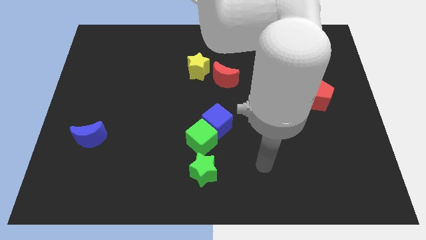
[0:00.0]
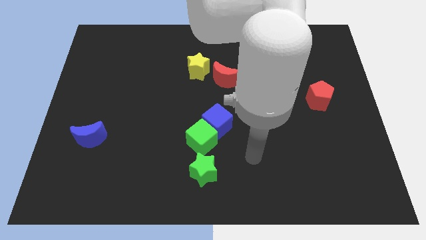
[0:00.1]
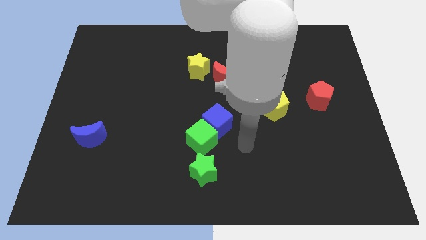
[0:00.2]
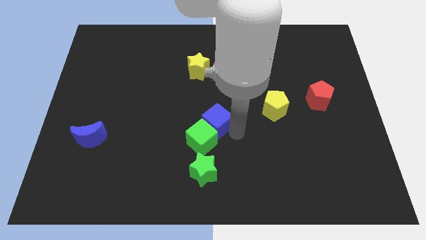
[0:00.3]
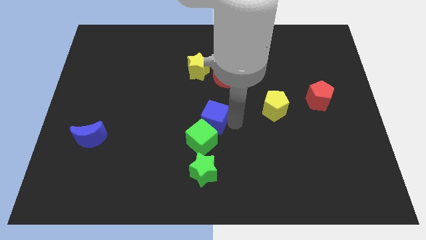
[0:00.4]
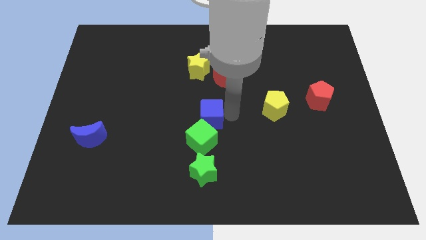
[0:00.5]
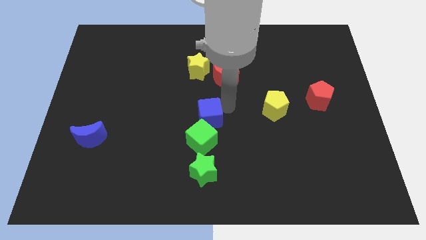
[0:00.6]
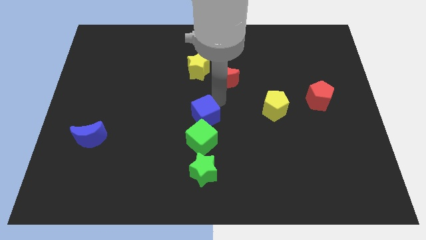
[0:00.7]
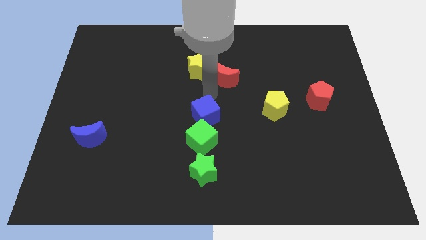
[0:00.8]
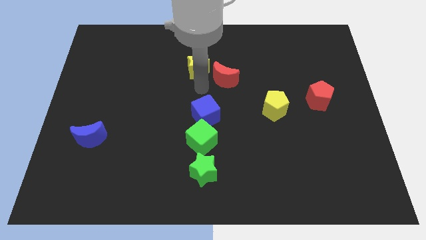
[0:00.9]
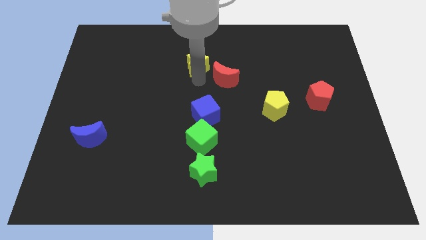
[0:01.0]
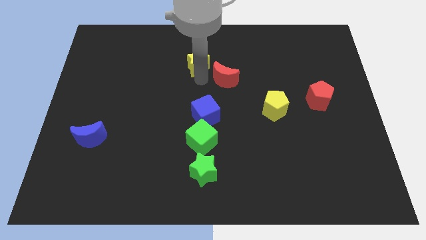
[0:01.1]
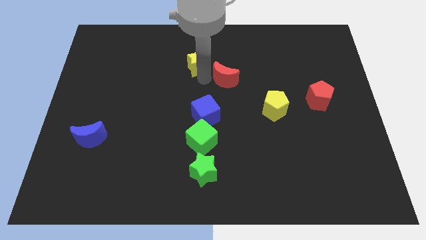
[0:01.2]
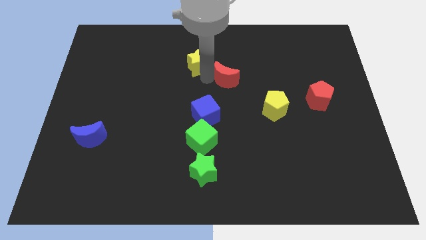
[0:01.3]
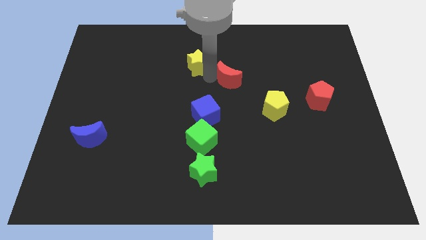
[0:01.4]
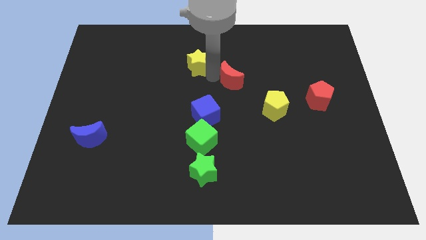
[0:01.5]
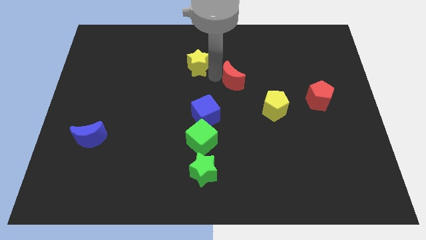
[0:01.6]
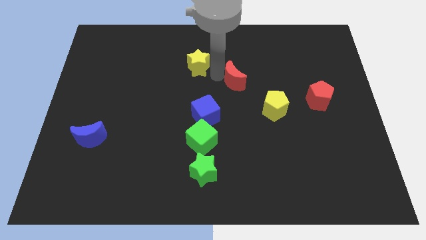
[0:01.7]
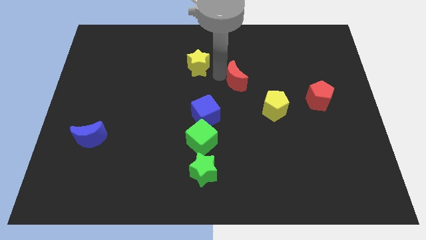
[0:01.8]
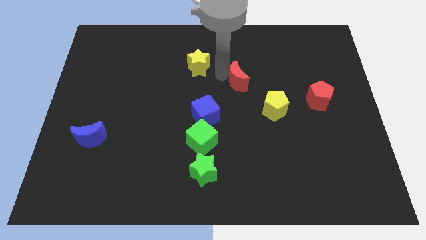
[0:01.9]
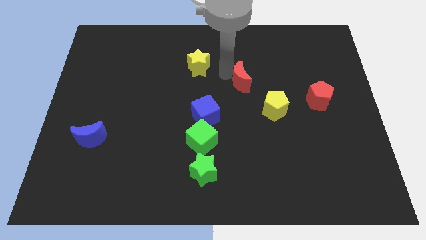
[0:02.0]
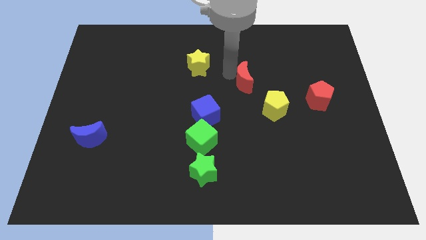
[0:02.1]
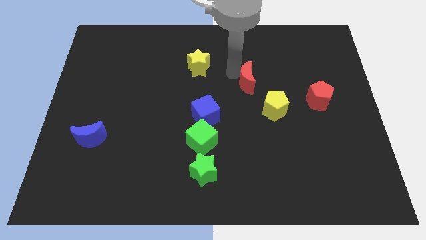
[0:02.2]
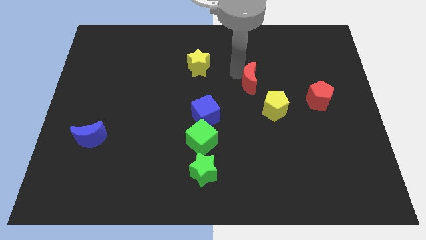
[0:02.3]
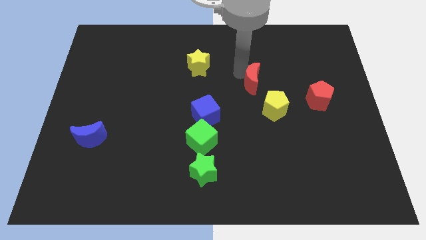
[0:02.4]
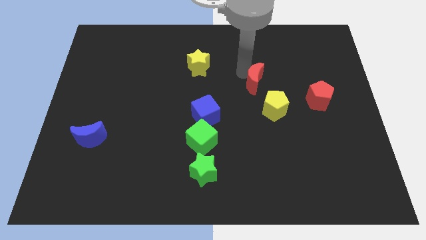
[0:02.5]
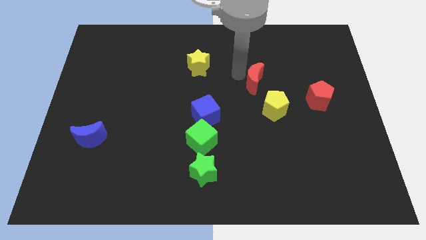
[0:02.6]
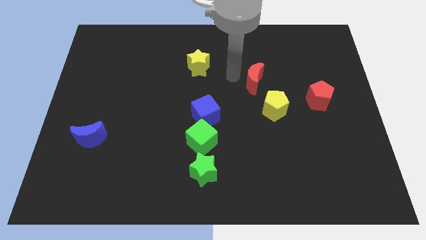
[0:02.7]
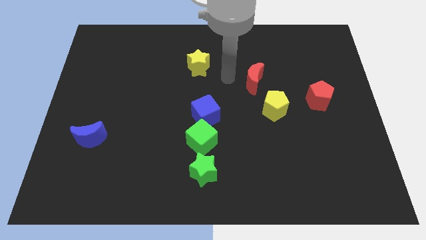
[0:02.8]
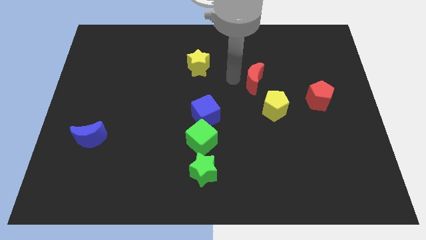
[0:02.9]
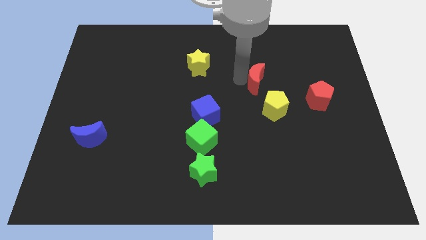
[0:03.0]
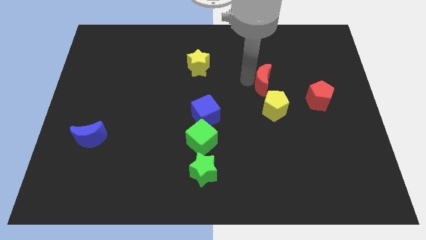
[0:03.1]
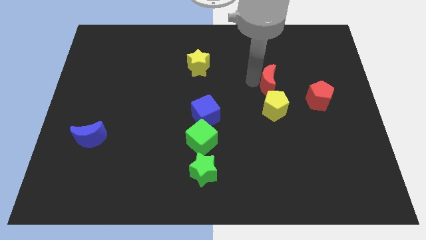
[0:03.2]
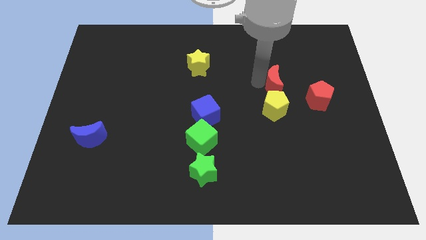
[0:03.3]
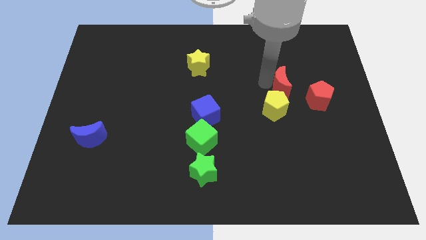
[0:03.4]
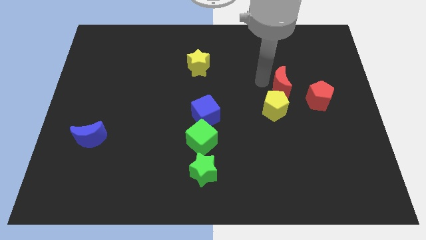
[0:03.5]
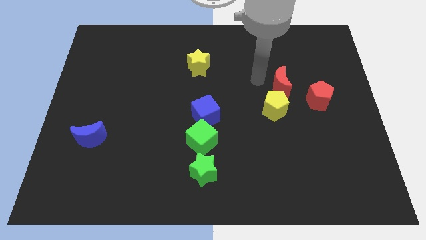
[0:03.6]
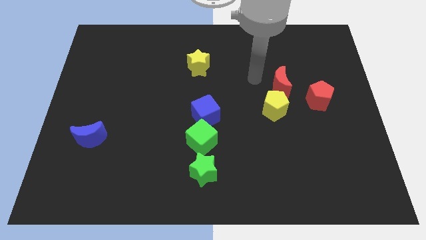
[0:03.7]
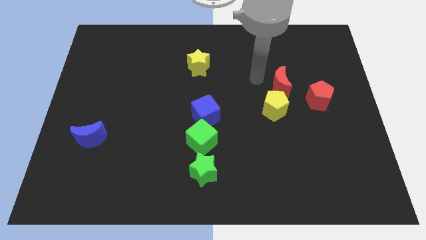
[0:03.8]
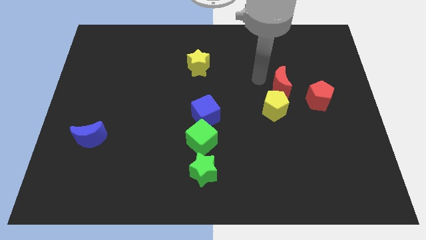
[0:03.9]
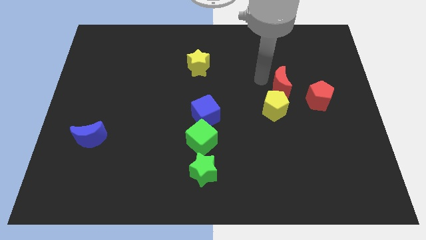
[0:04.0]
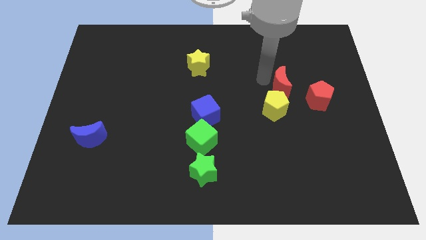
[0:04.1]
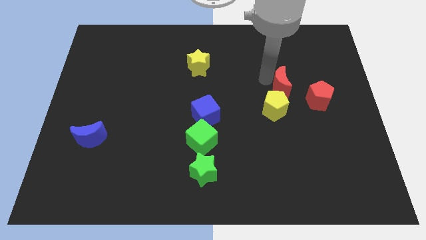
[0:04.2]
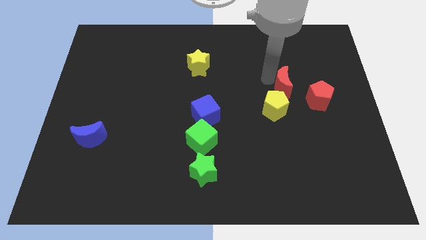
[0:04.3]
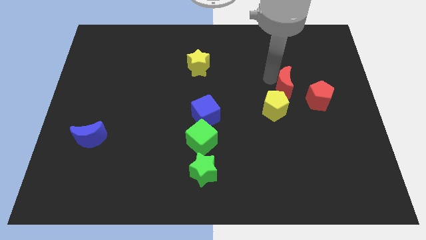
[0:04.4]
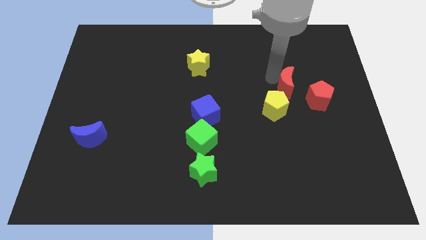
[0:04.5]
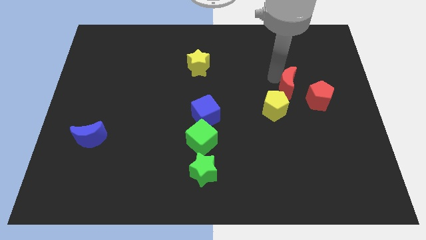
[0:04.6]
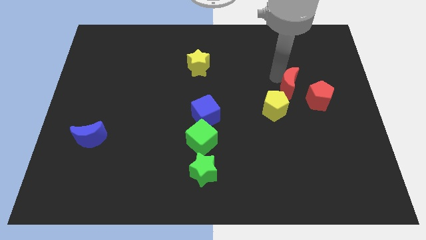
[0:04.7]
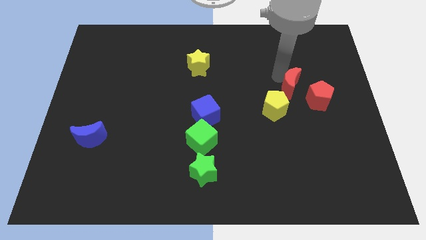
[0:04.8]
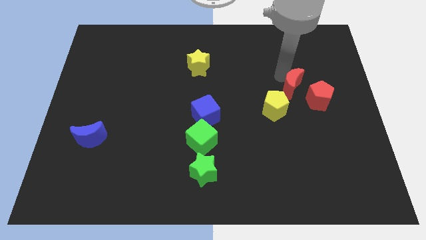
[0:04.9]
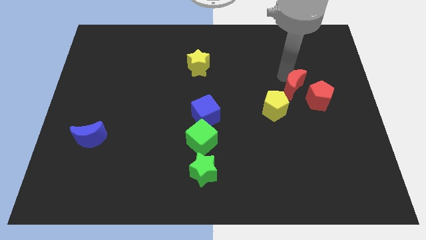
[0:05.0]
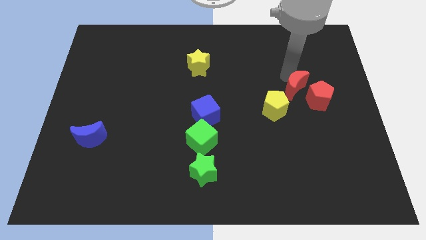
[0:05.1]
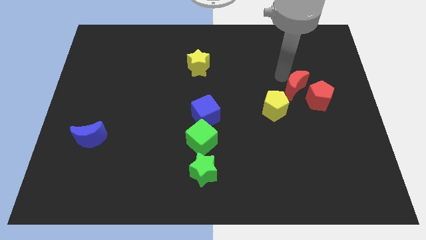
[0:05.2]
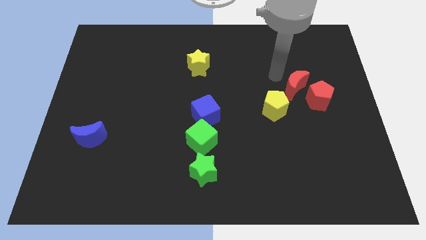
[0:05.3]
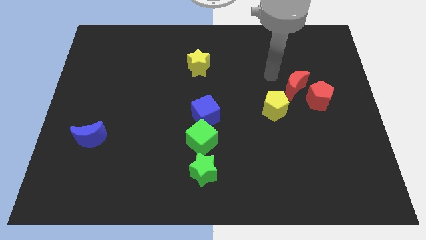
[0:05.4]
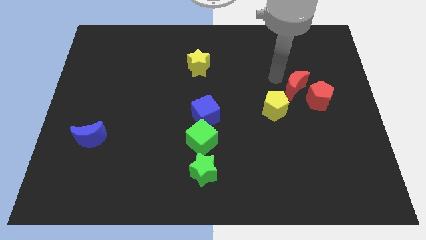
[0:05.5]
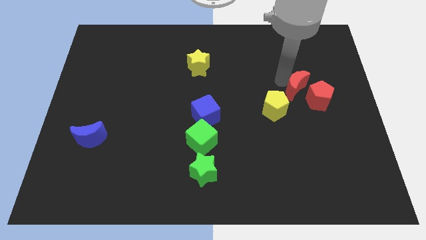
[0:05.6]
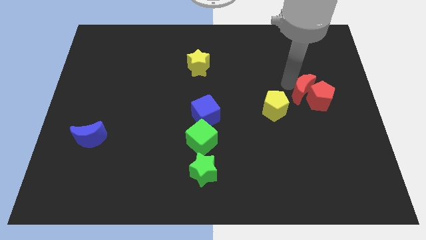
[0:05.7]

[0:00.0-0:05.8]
put the red moon next to the red pentagon

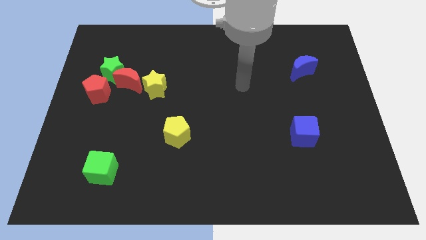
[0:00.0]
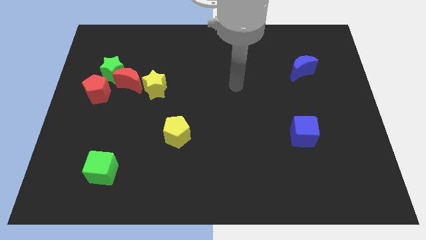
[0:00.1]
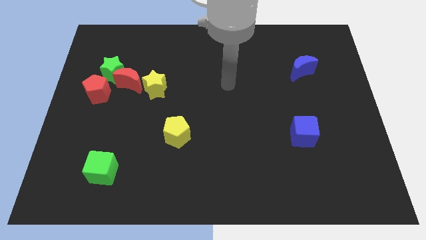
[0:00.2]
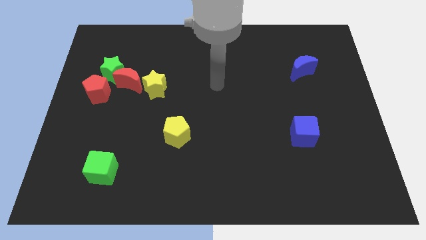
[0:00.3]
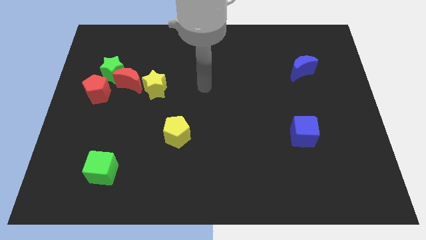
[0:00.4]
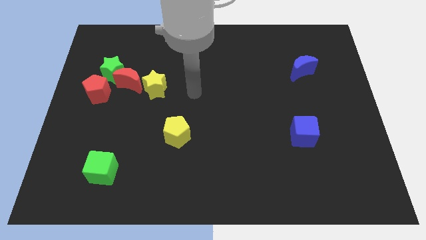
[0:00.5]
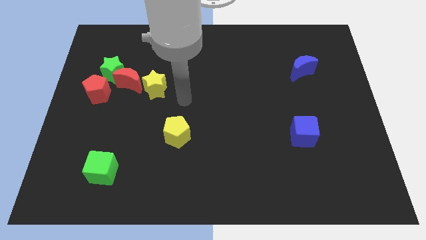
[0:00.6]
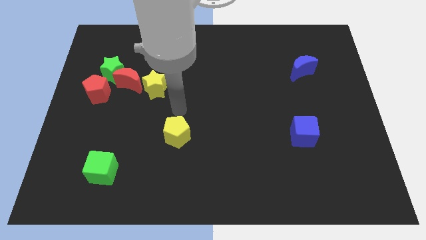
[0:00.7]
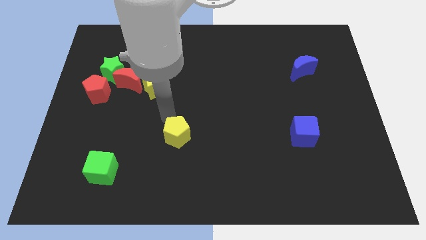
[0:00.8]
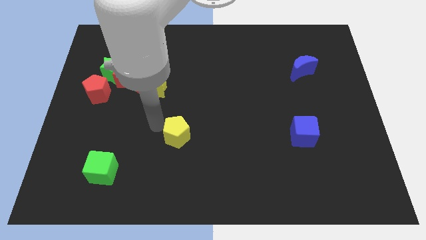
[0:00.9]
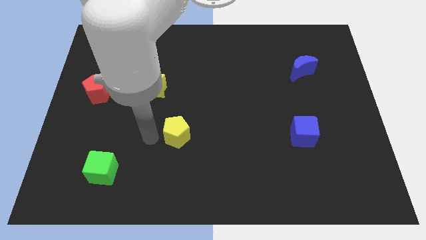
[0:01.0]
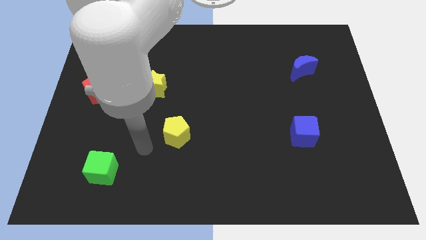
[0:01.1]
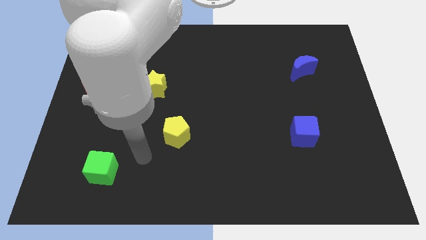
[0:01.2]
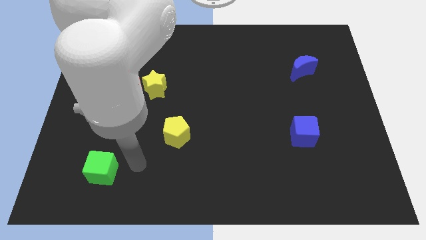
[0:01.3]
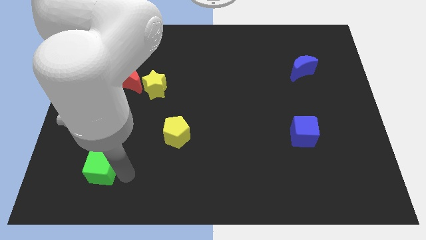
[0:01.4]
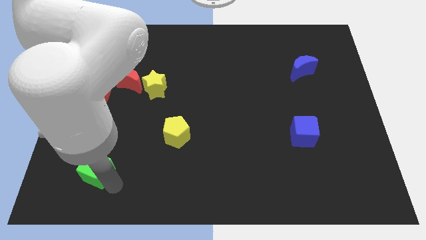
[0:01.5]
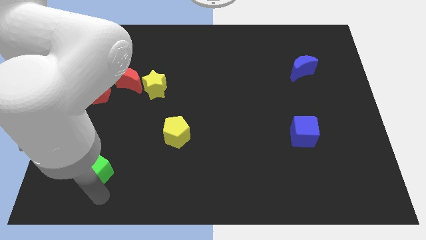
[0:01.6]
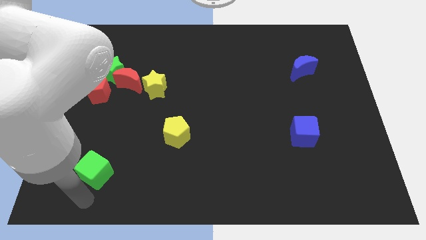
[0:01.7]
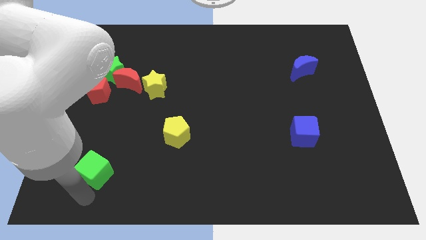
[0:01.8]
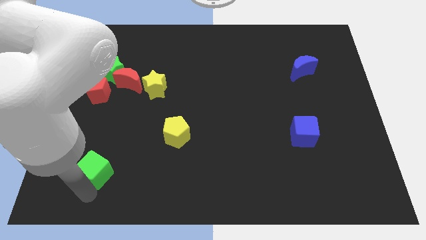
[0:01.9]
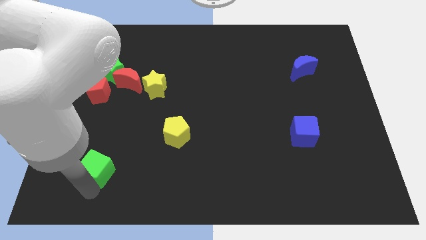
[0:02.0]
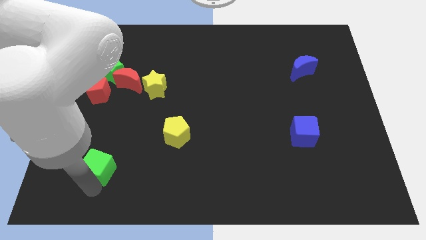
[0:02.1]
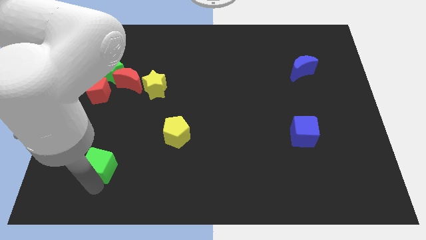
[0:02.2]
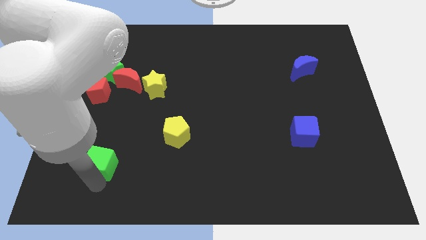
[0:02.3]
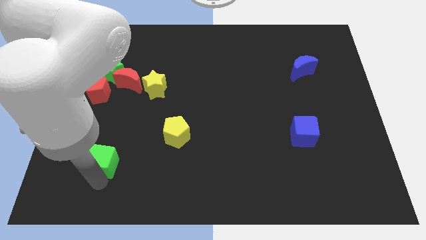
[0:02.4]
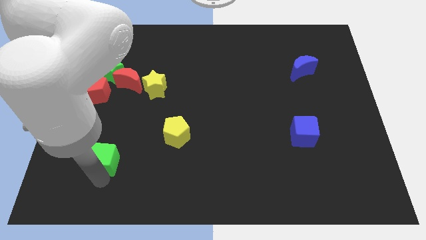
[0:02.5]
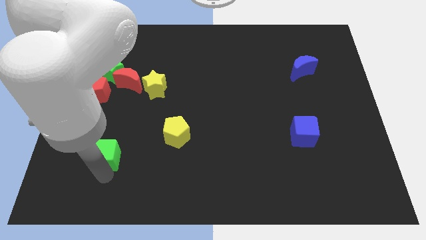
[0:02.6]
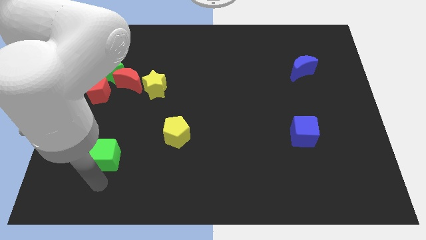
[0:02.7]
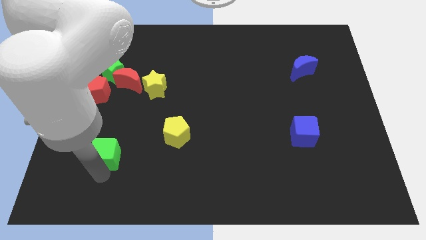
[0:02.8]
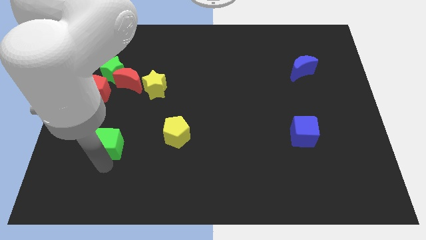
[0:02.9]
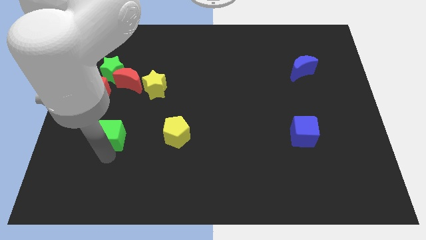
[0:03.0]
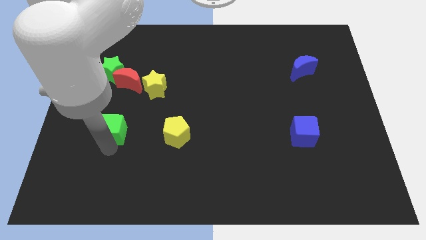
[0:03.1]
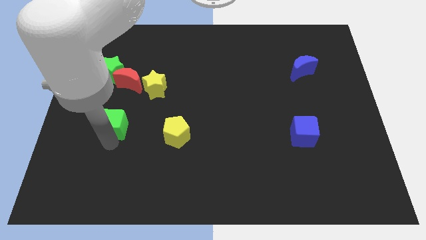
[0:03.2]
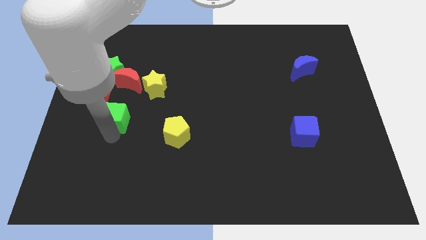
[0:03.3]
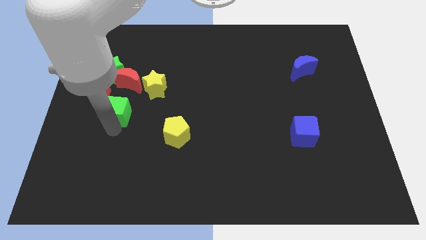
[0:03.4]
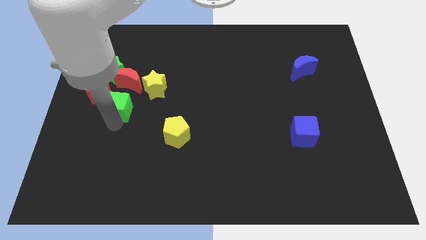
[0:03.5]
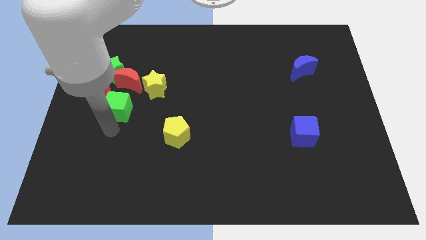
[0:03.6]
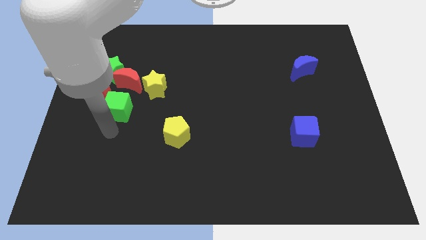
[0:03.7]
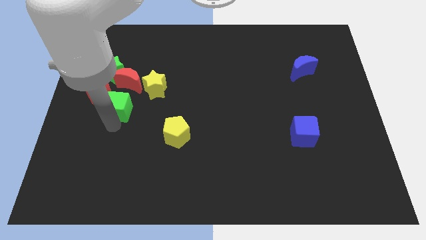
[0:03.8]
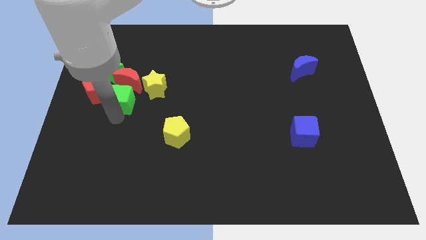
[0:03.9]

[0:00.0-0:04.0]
move the green cube towards the red moon
